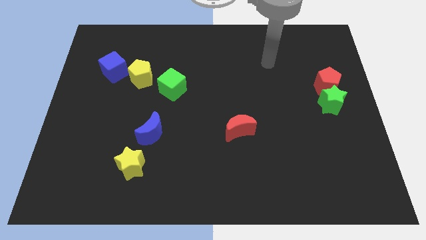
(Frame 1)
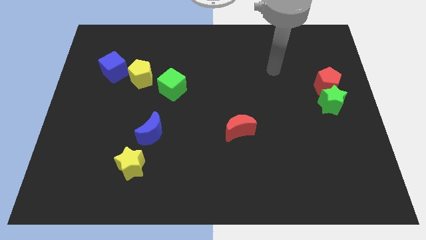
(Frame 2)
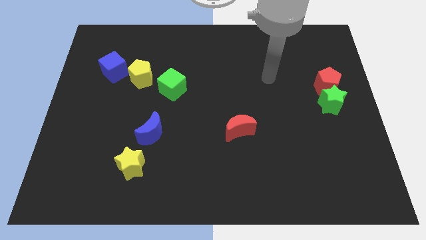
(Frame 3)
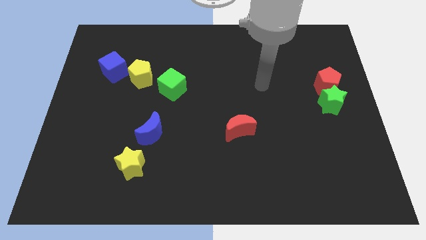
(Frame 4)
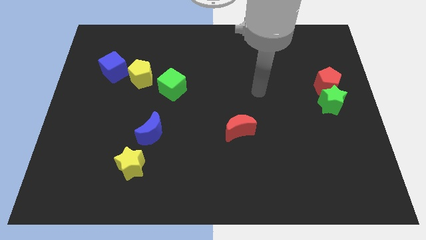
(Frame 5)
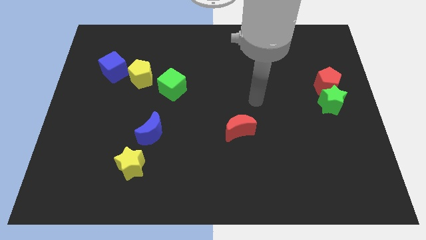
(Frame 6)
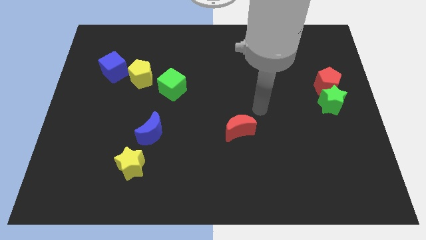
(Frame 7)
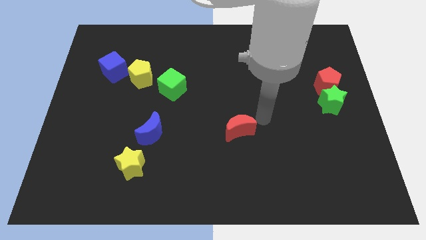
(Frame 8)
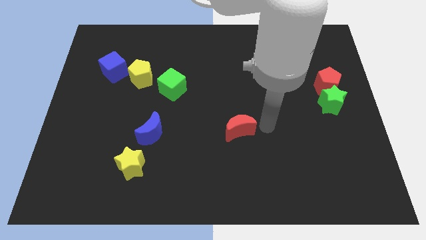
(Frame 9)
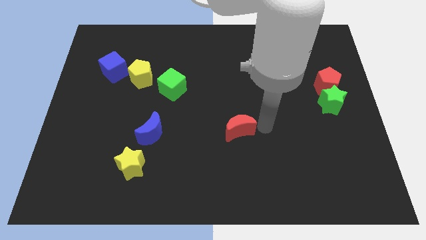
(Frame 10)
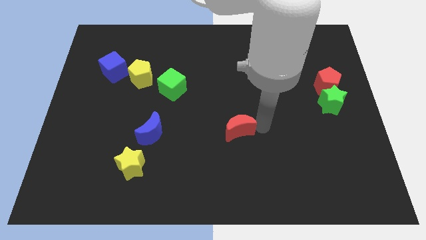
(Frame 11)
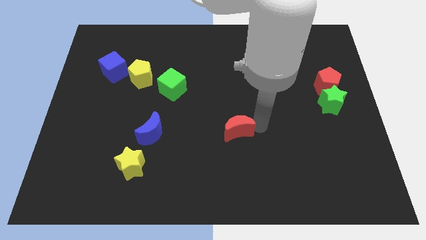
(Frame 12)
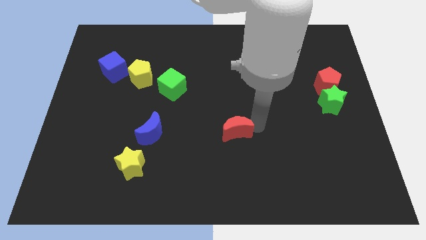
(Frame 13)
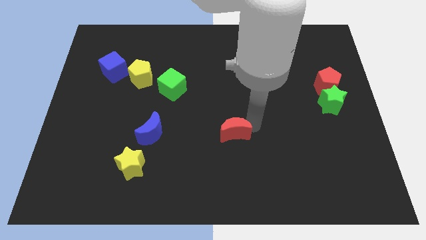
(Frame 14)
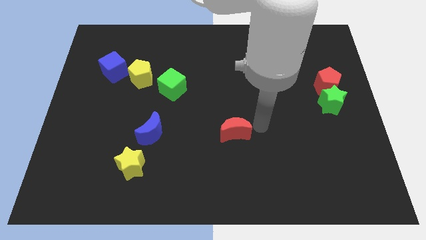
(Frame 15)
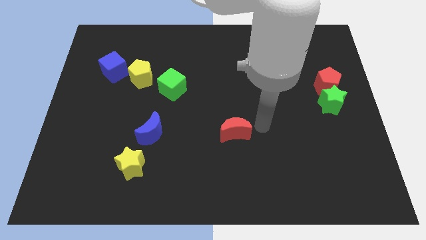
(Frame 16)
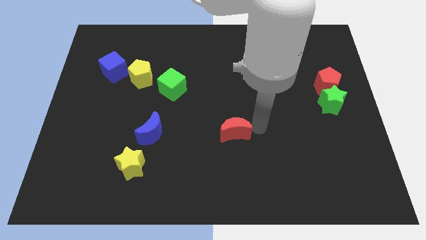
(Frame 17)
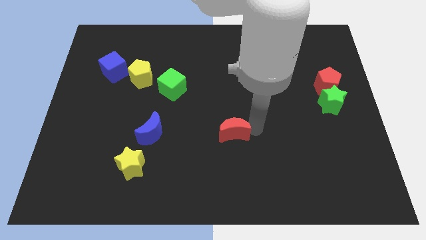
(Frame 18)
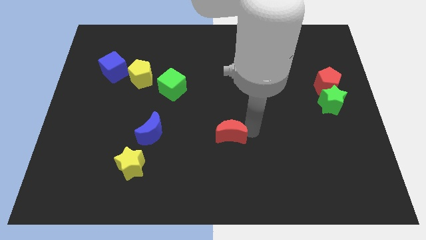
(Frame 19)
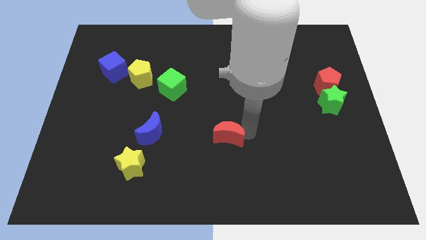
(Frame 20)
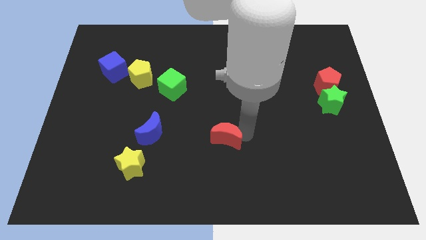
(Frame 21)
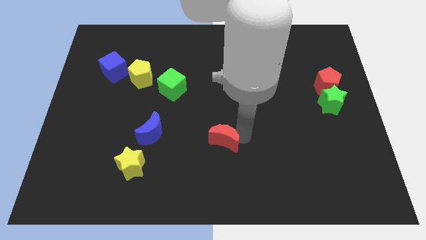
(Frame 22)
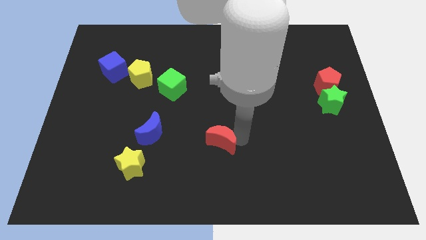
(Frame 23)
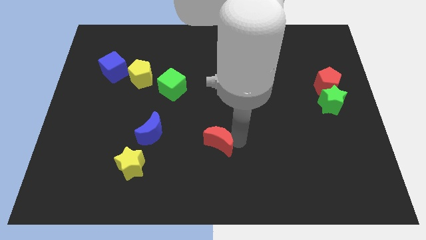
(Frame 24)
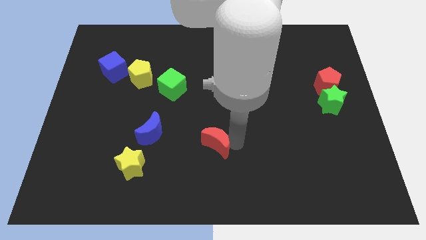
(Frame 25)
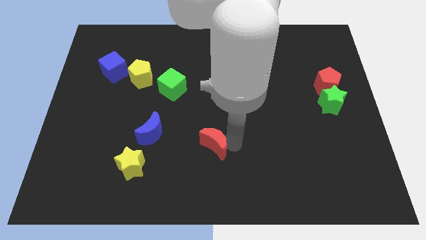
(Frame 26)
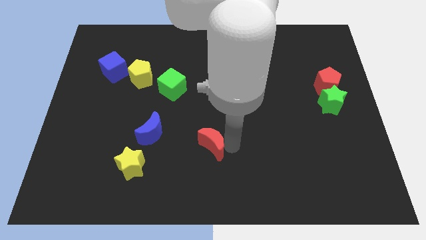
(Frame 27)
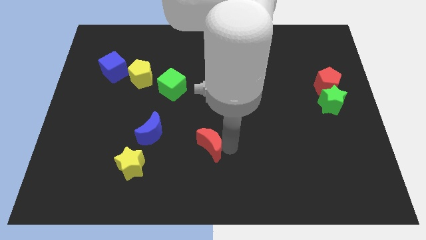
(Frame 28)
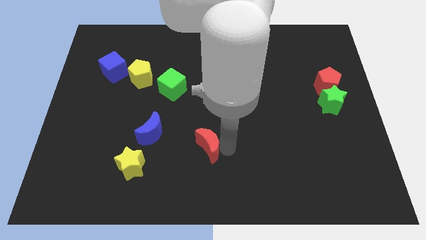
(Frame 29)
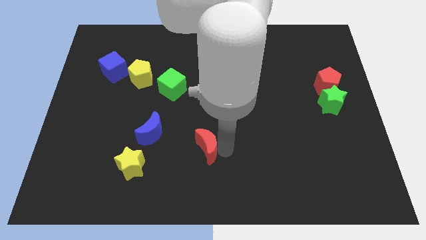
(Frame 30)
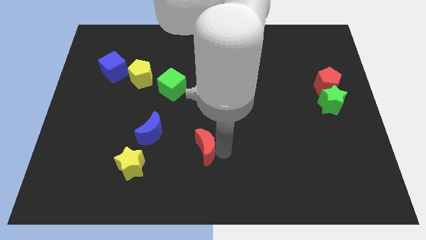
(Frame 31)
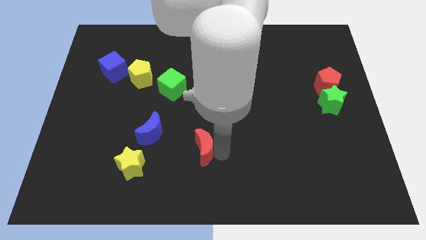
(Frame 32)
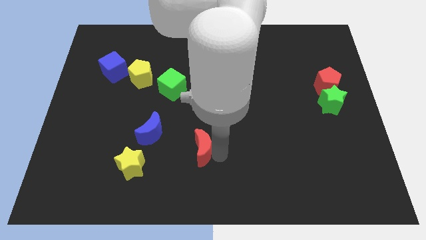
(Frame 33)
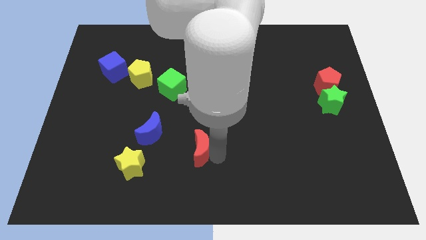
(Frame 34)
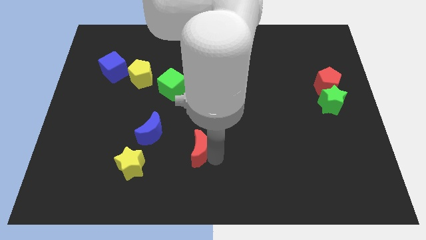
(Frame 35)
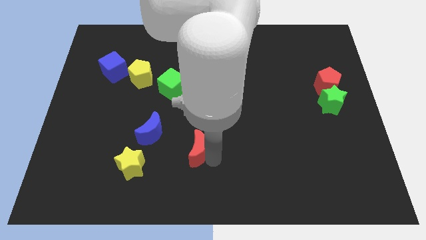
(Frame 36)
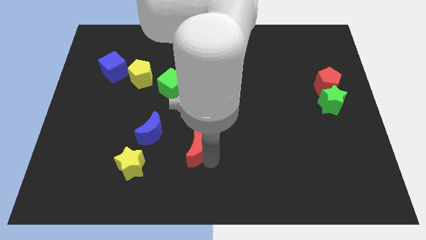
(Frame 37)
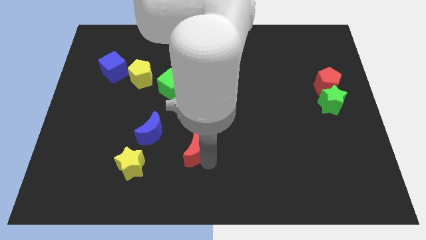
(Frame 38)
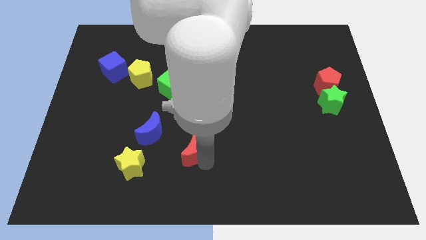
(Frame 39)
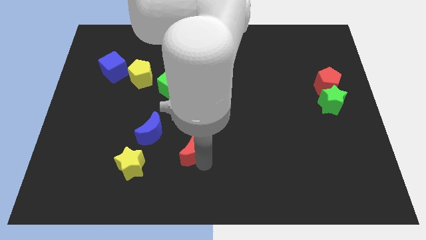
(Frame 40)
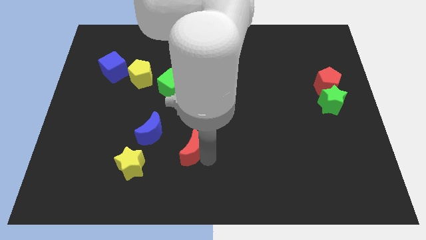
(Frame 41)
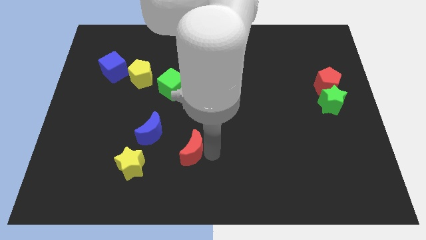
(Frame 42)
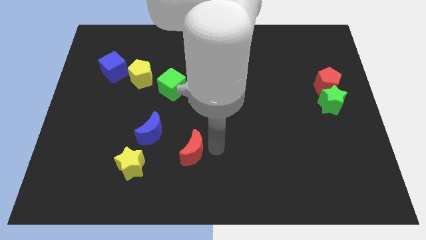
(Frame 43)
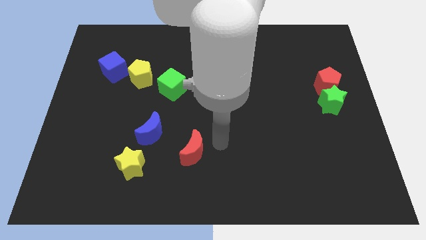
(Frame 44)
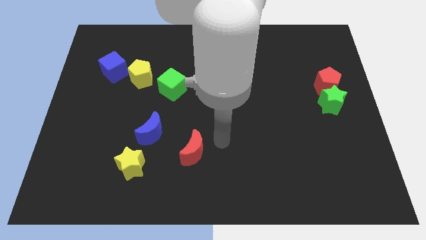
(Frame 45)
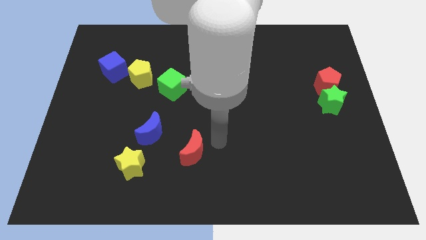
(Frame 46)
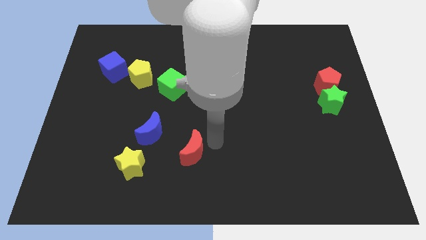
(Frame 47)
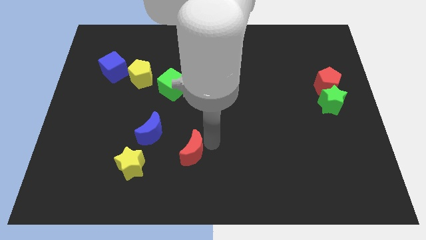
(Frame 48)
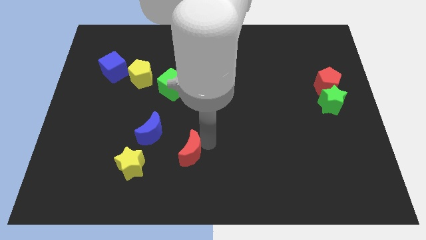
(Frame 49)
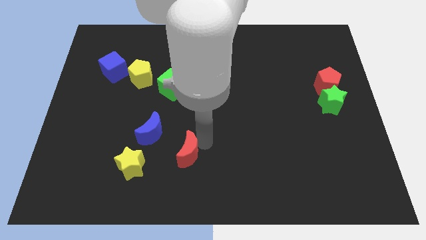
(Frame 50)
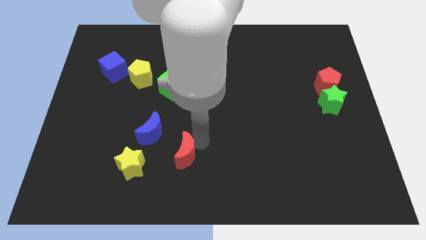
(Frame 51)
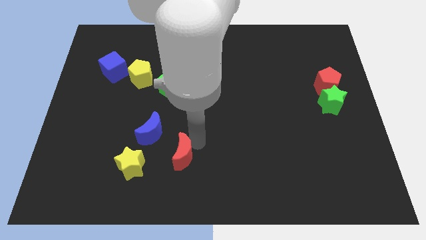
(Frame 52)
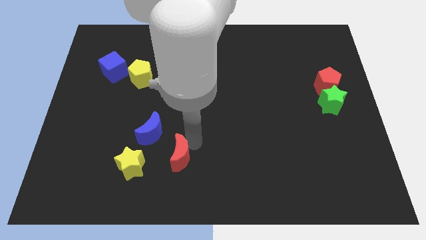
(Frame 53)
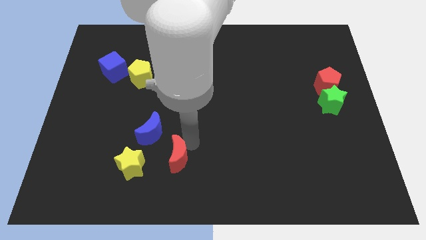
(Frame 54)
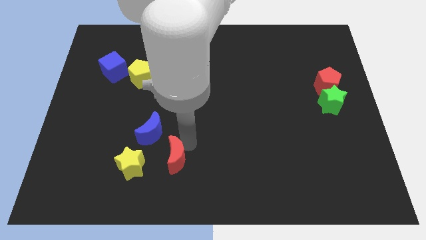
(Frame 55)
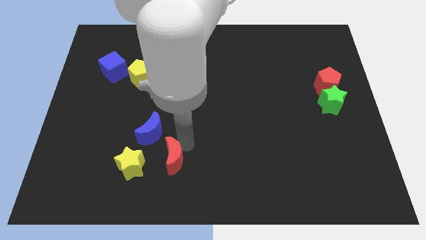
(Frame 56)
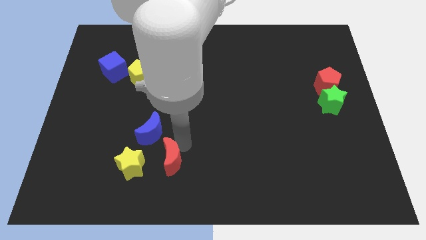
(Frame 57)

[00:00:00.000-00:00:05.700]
put the red moon to the bottom side of the blue moon

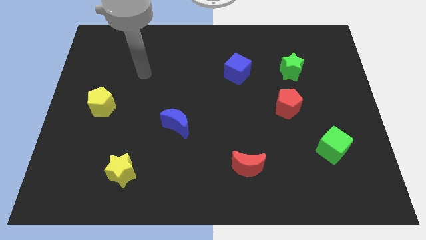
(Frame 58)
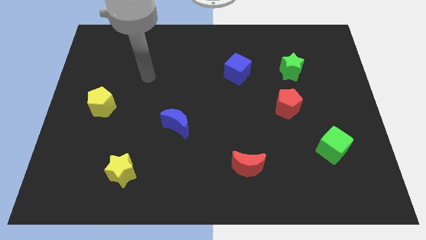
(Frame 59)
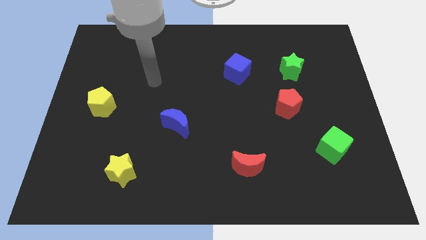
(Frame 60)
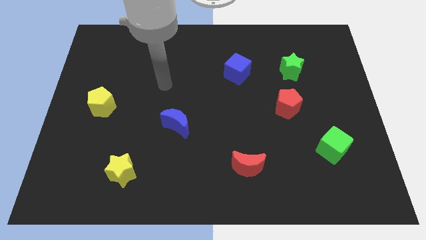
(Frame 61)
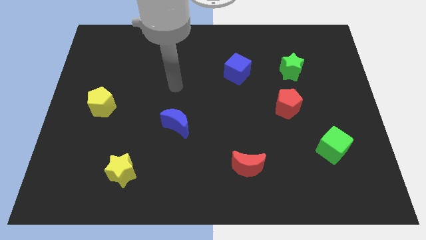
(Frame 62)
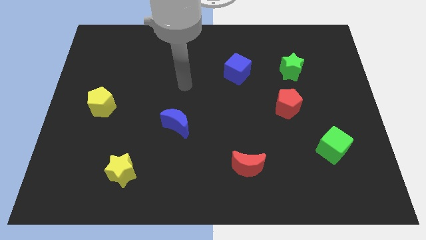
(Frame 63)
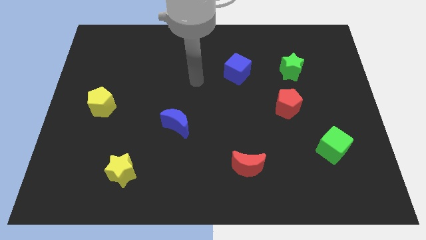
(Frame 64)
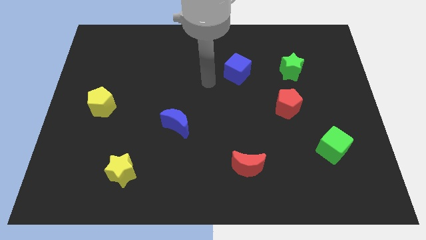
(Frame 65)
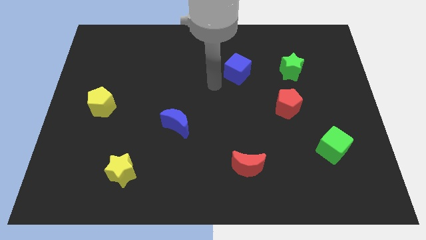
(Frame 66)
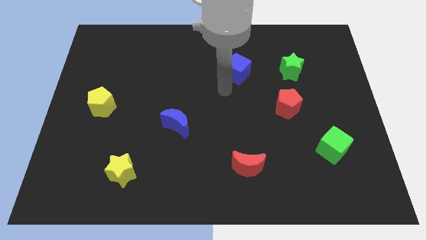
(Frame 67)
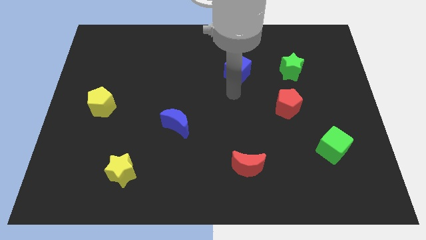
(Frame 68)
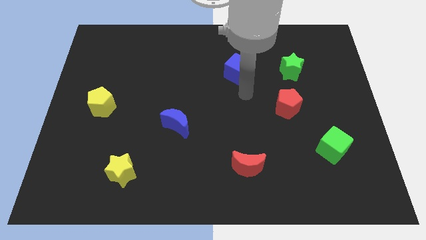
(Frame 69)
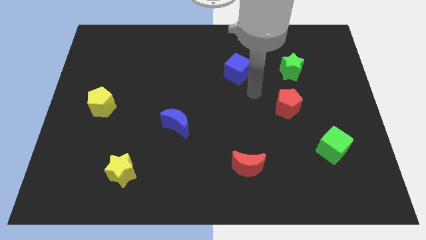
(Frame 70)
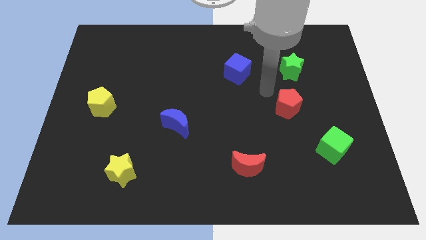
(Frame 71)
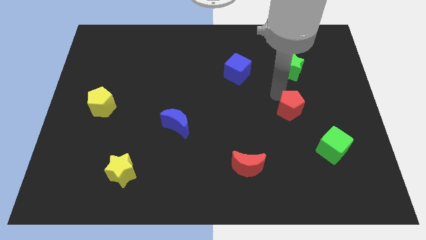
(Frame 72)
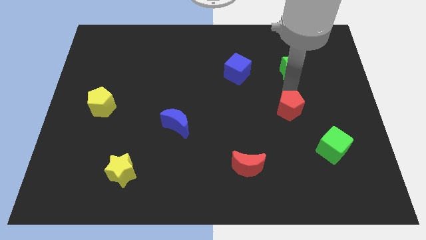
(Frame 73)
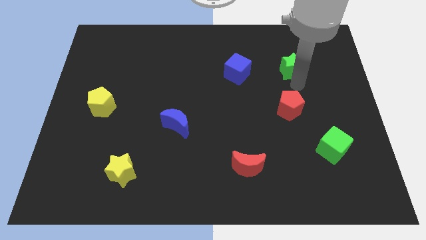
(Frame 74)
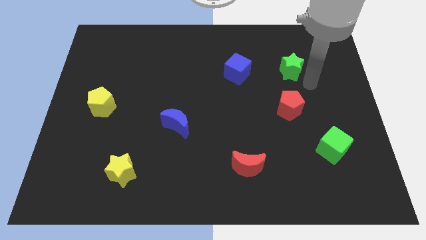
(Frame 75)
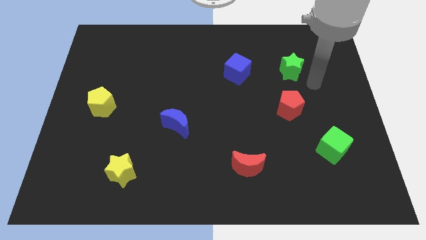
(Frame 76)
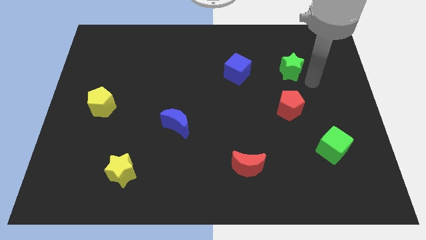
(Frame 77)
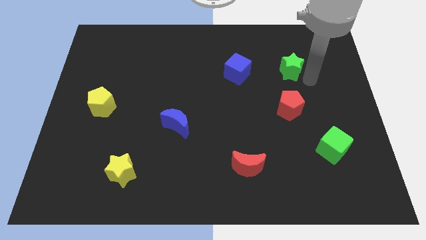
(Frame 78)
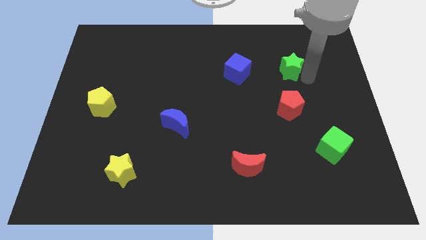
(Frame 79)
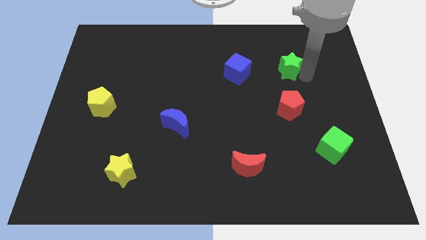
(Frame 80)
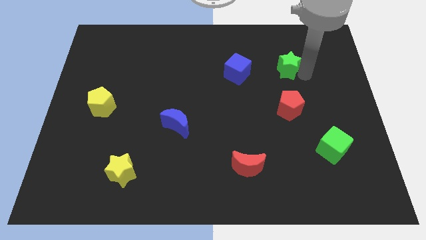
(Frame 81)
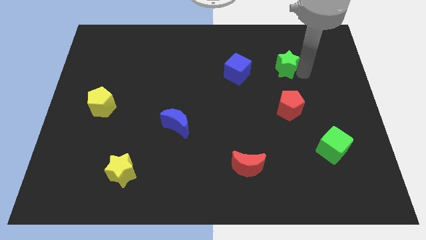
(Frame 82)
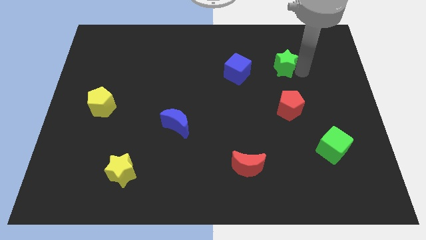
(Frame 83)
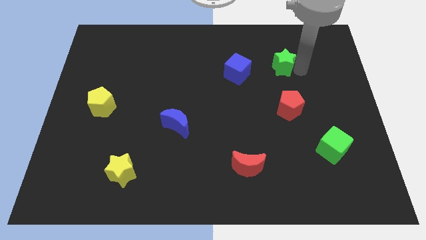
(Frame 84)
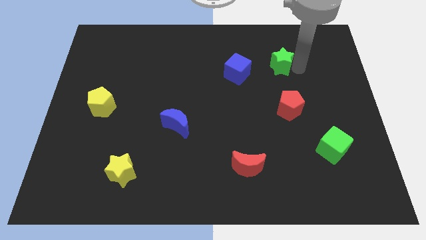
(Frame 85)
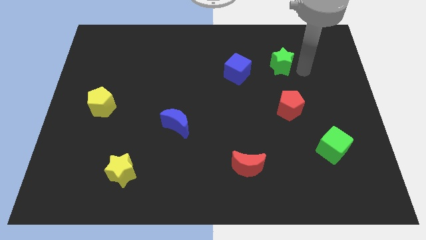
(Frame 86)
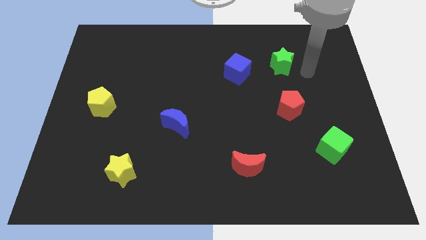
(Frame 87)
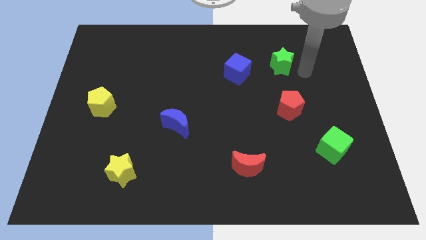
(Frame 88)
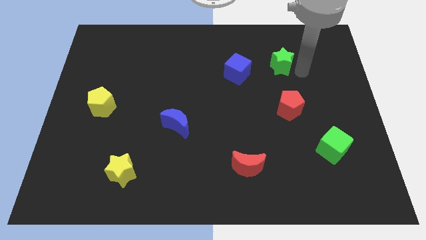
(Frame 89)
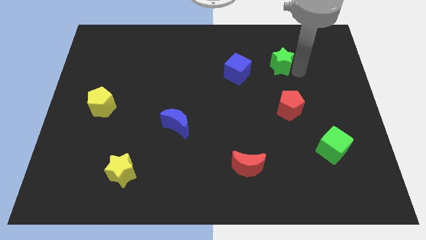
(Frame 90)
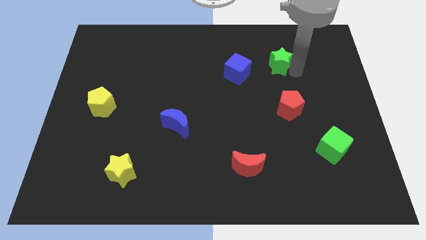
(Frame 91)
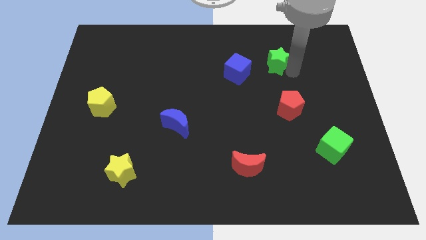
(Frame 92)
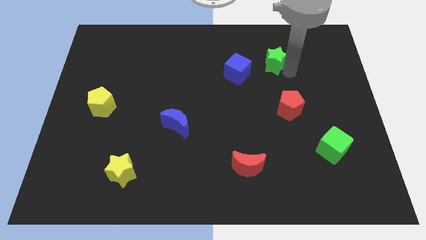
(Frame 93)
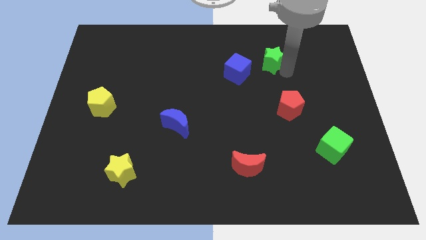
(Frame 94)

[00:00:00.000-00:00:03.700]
slide the green star diagonally up and to the right of the blue cube
